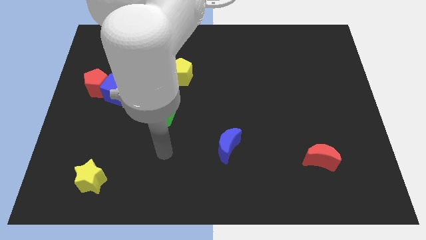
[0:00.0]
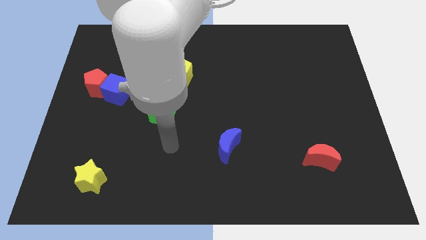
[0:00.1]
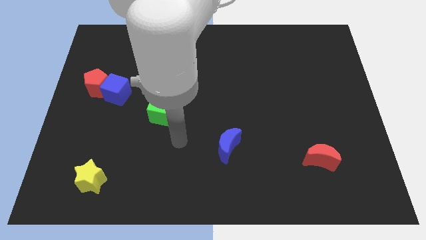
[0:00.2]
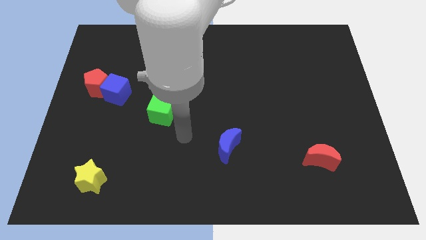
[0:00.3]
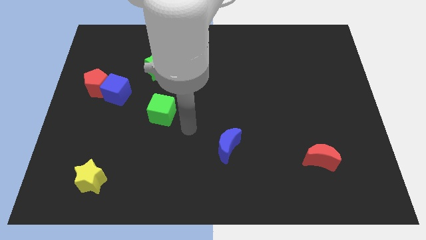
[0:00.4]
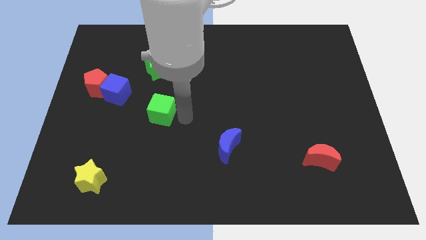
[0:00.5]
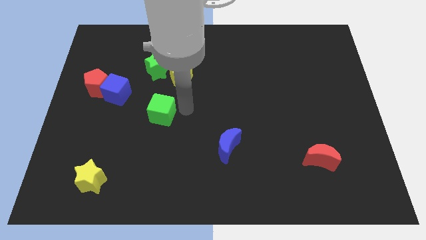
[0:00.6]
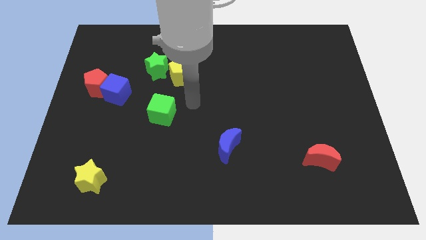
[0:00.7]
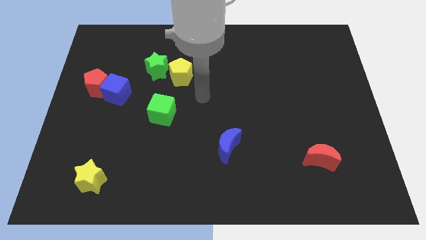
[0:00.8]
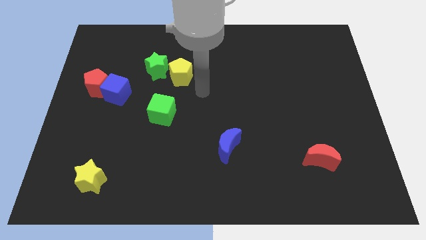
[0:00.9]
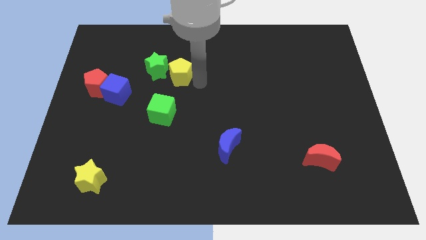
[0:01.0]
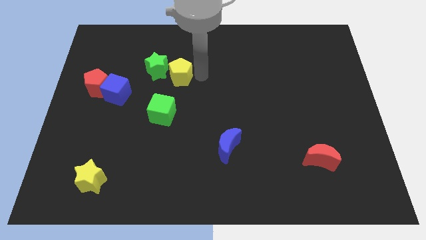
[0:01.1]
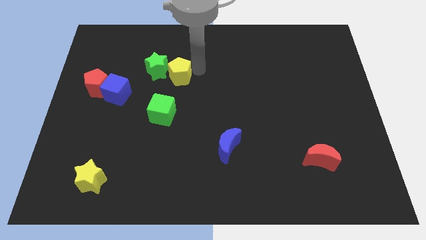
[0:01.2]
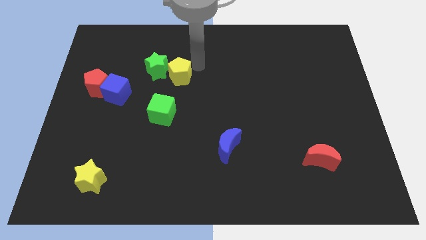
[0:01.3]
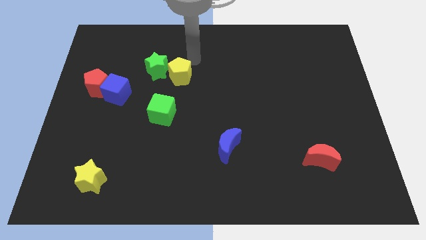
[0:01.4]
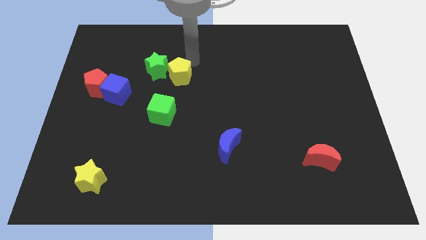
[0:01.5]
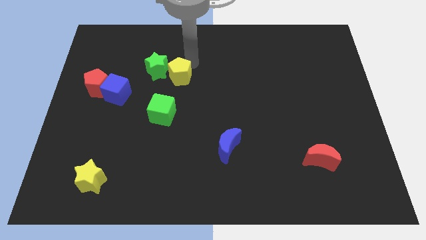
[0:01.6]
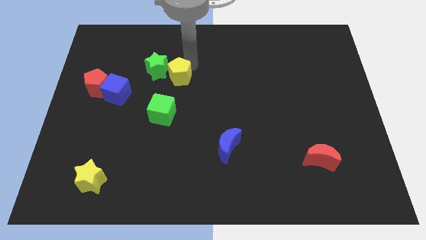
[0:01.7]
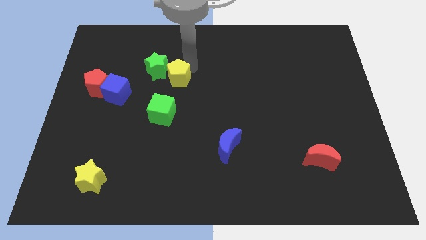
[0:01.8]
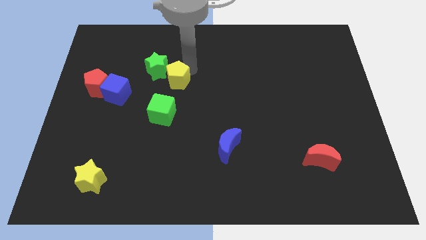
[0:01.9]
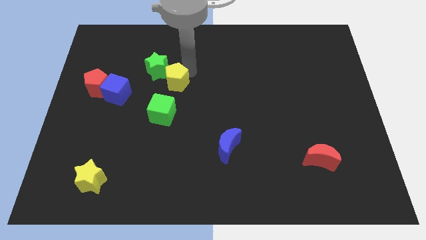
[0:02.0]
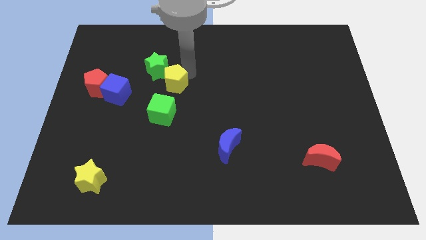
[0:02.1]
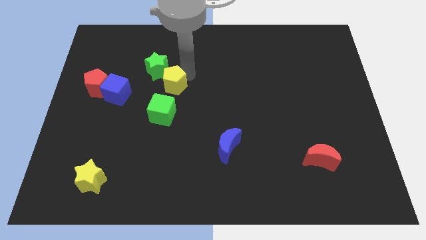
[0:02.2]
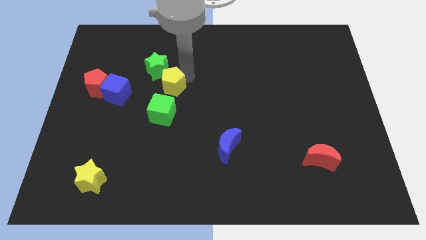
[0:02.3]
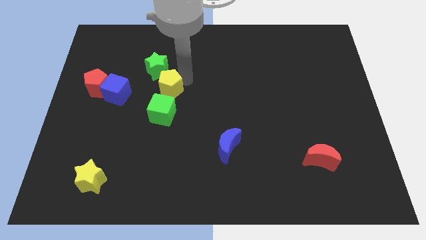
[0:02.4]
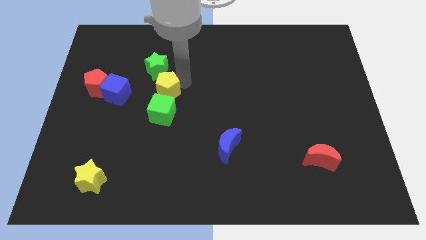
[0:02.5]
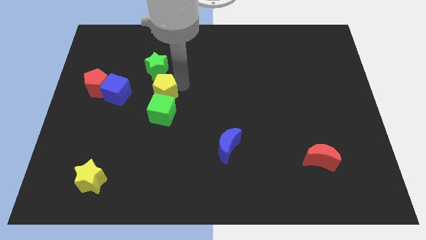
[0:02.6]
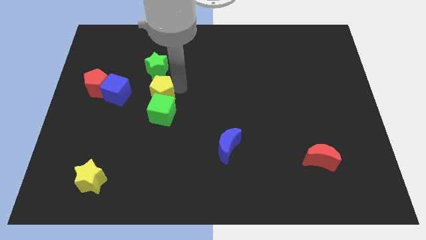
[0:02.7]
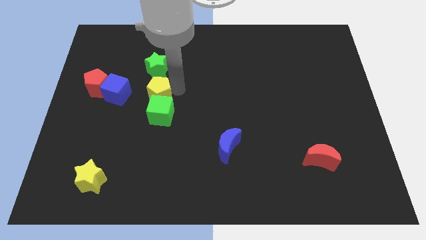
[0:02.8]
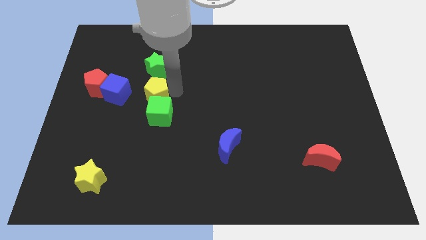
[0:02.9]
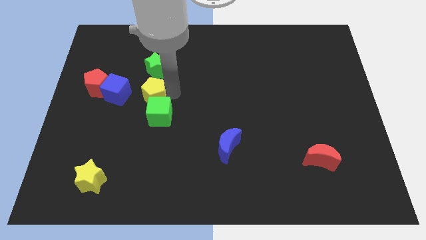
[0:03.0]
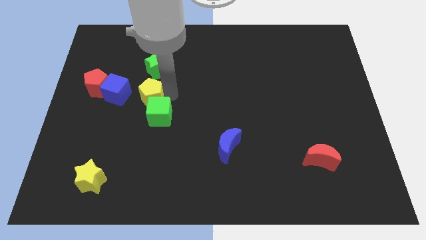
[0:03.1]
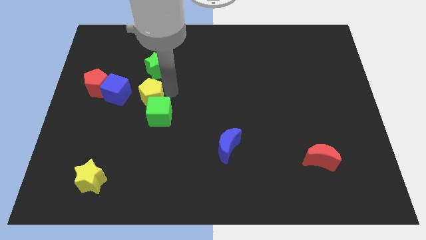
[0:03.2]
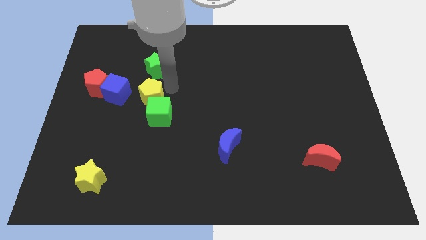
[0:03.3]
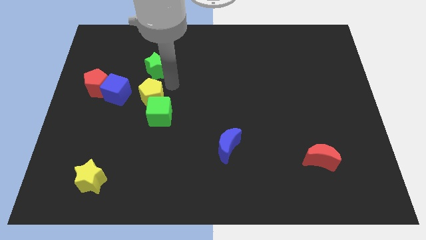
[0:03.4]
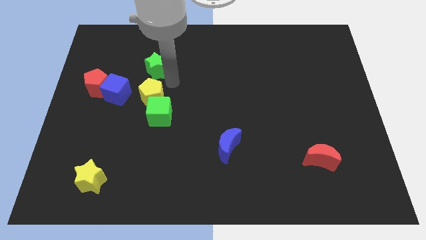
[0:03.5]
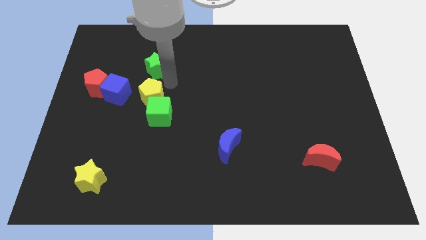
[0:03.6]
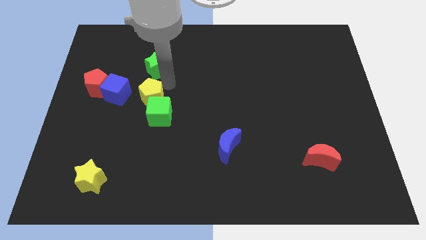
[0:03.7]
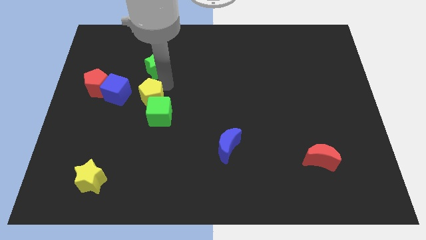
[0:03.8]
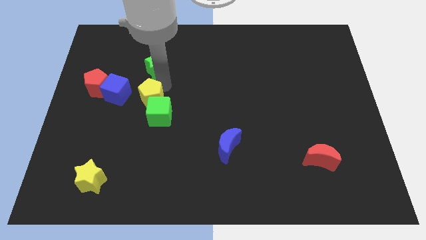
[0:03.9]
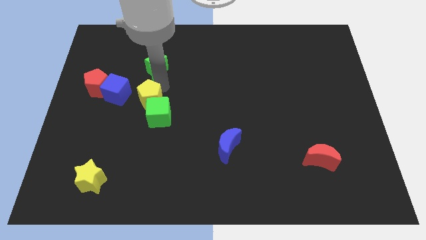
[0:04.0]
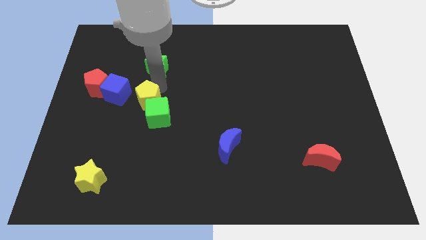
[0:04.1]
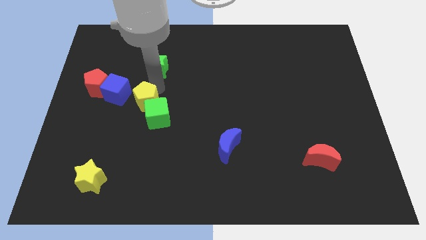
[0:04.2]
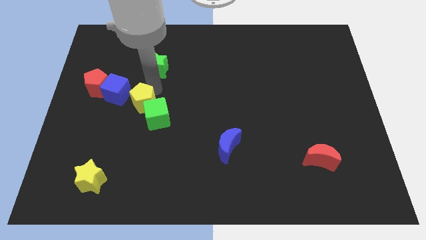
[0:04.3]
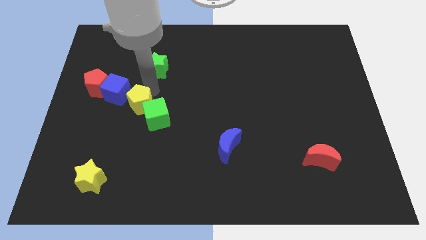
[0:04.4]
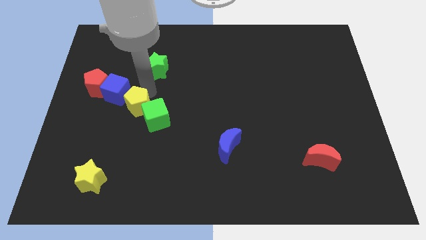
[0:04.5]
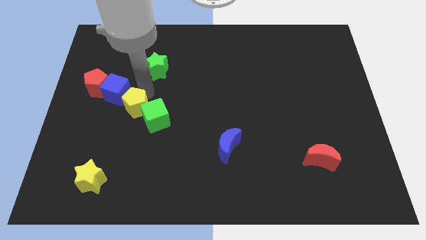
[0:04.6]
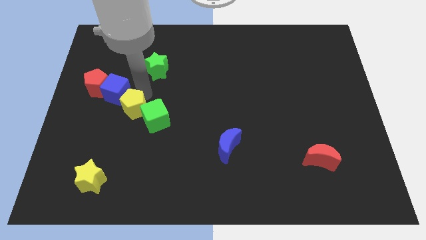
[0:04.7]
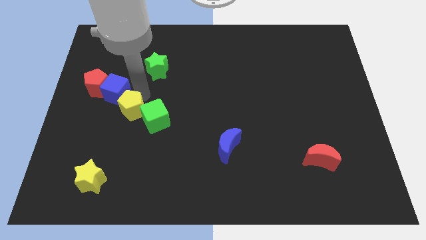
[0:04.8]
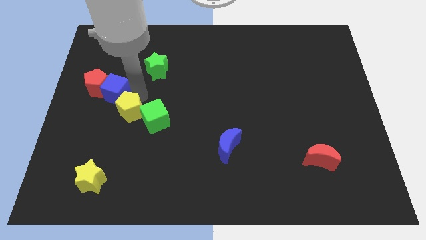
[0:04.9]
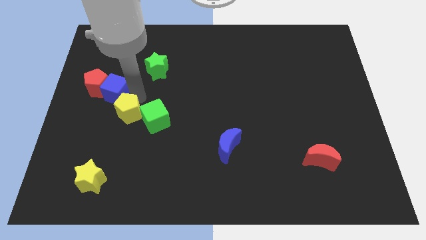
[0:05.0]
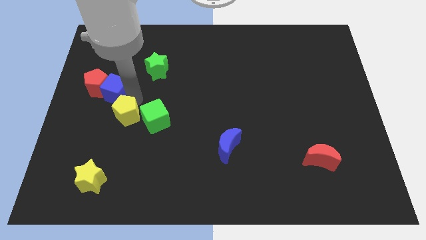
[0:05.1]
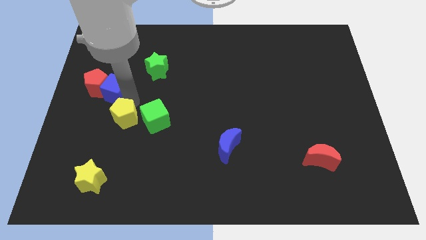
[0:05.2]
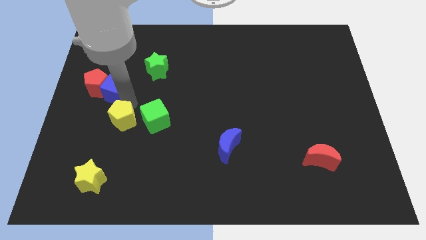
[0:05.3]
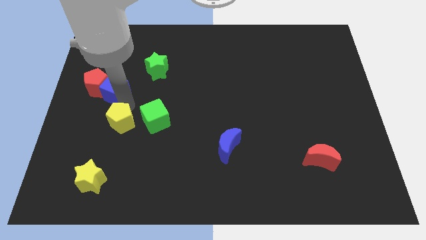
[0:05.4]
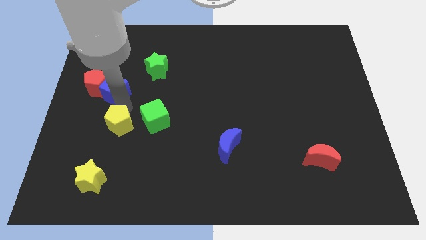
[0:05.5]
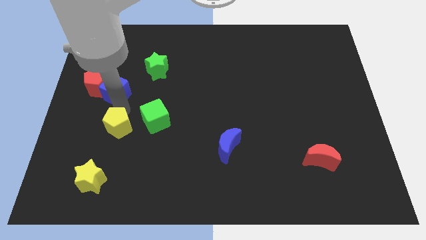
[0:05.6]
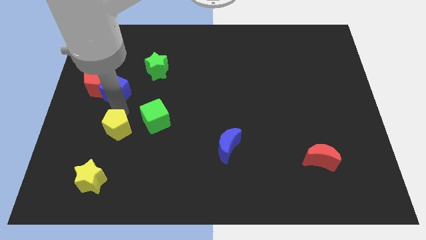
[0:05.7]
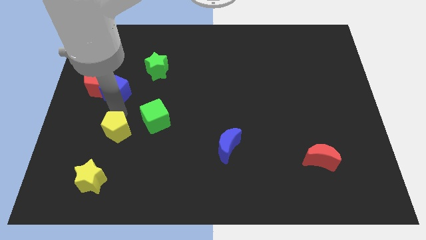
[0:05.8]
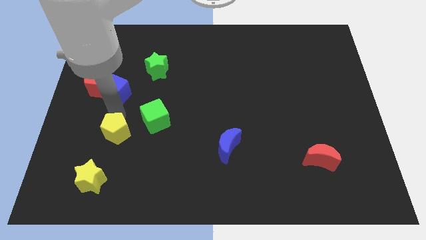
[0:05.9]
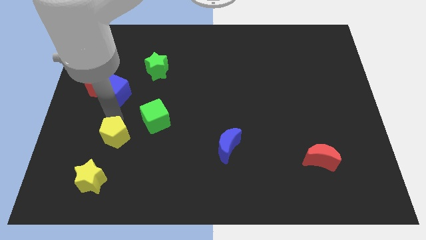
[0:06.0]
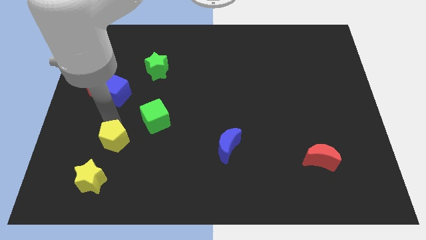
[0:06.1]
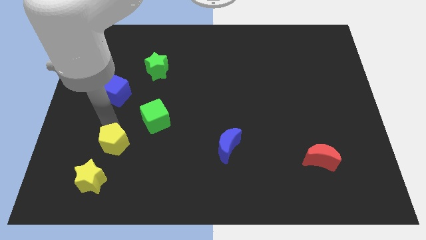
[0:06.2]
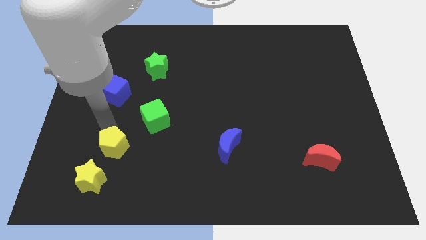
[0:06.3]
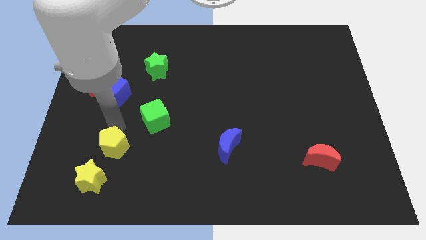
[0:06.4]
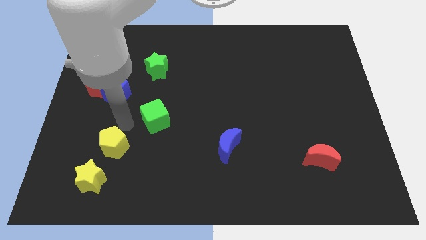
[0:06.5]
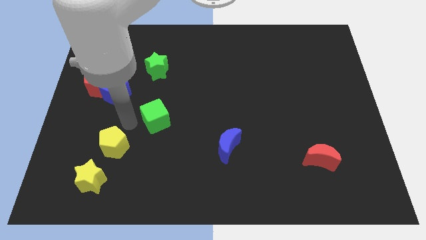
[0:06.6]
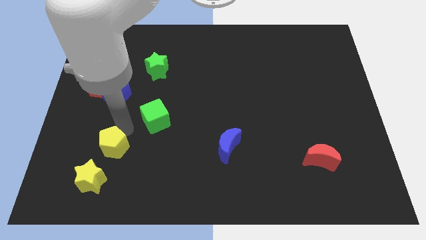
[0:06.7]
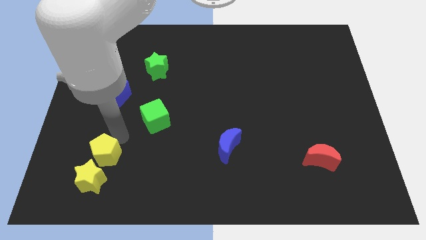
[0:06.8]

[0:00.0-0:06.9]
push the yellow pentagon to the yellow star

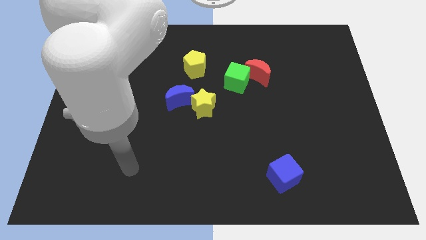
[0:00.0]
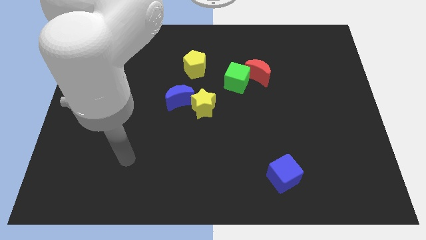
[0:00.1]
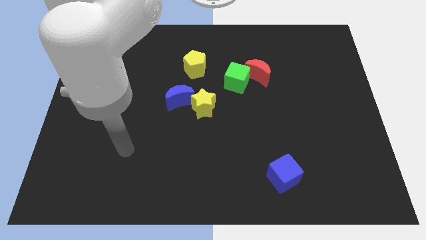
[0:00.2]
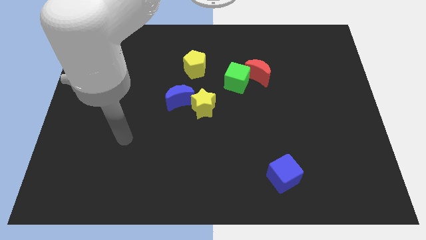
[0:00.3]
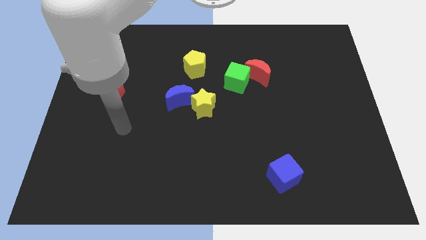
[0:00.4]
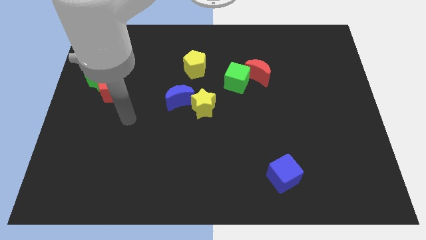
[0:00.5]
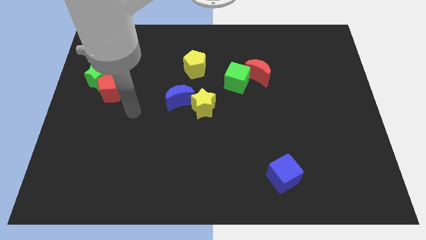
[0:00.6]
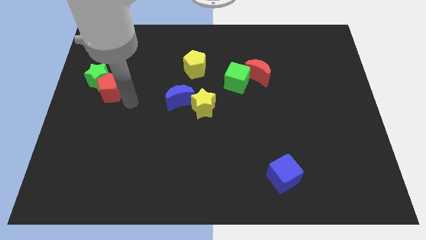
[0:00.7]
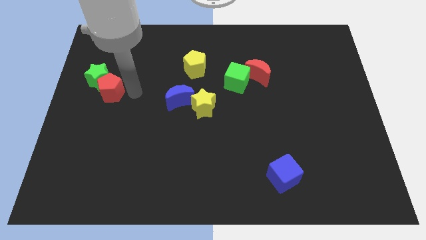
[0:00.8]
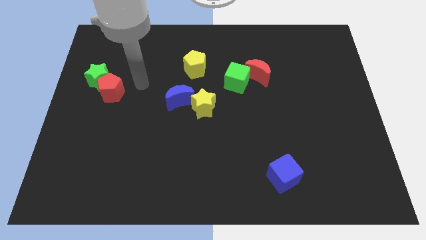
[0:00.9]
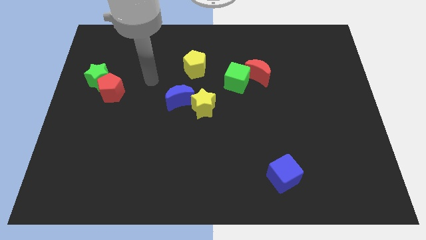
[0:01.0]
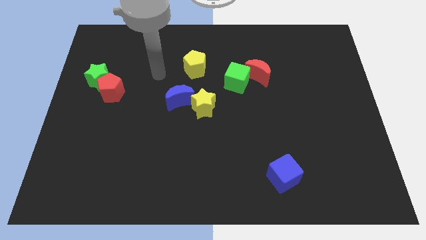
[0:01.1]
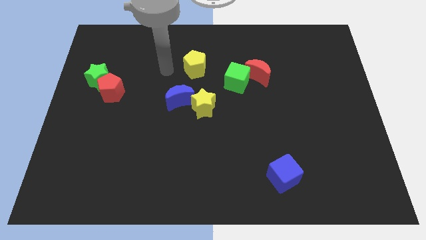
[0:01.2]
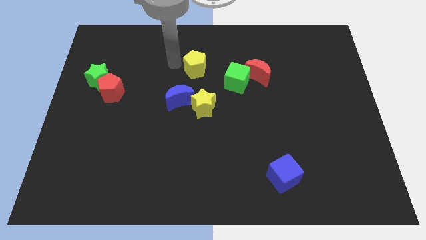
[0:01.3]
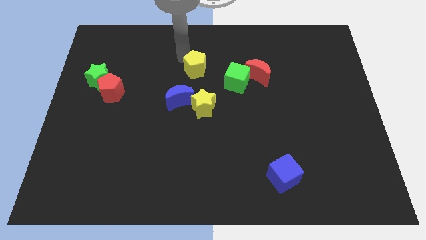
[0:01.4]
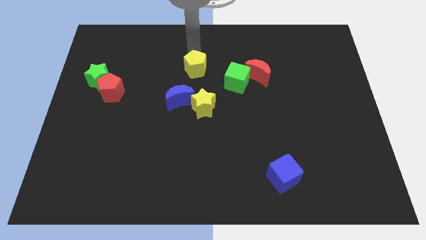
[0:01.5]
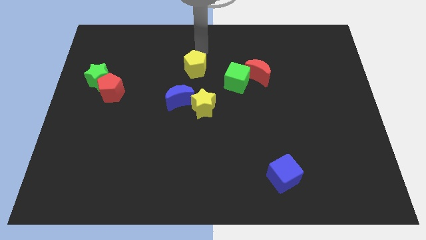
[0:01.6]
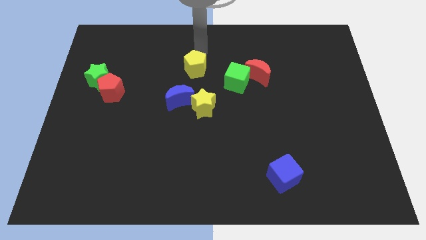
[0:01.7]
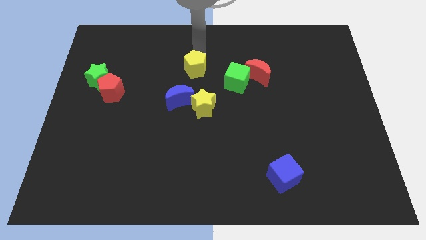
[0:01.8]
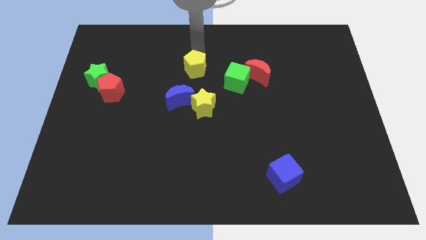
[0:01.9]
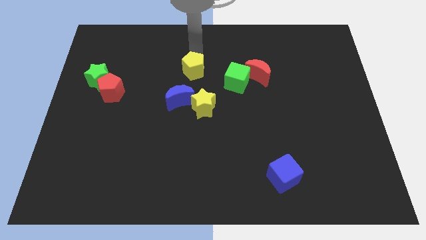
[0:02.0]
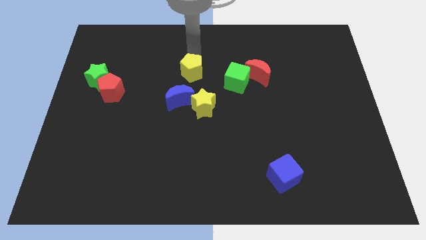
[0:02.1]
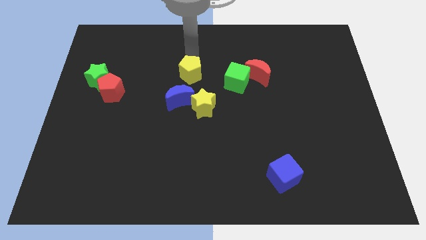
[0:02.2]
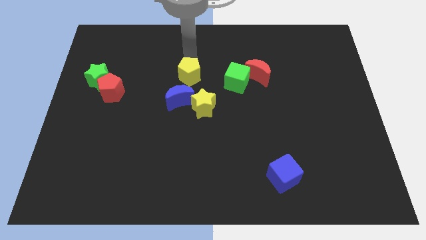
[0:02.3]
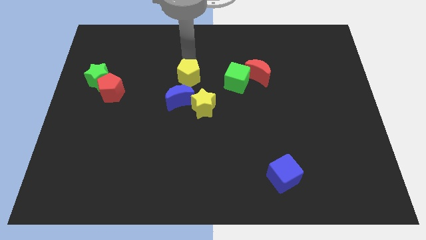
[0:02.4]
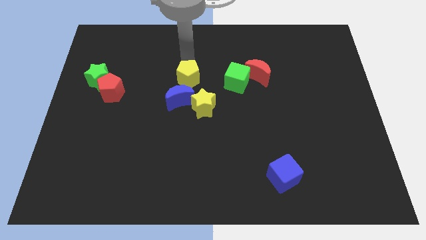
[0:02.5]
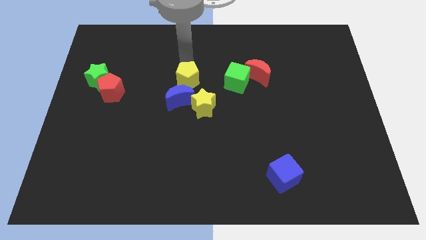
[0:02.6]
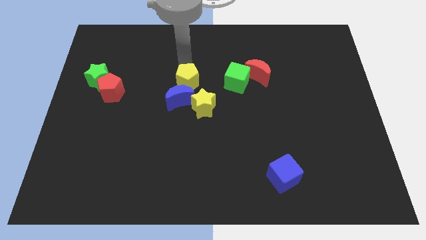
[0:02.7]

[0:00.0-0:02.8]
put the yellow pentagon towards the blue moon
